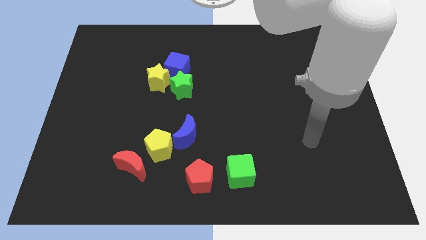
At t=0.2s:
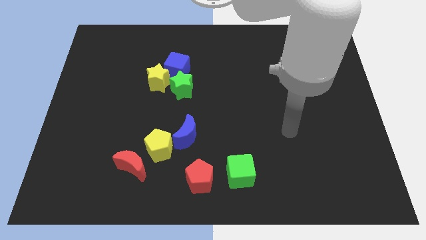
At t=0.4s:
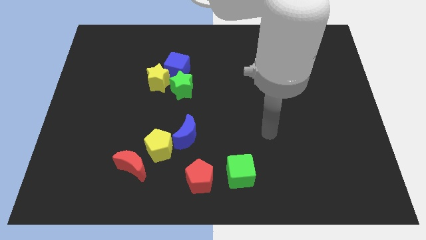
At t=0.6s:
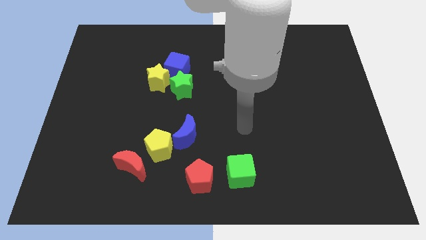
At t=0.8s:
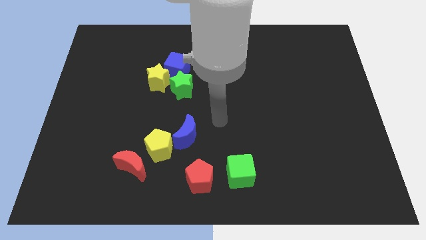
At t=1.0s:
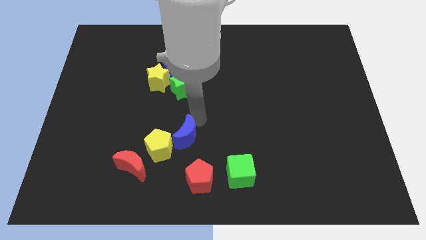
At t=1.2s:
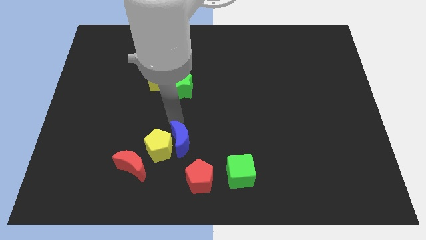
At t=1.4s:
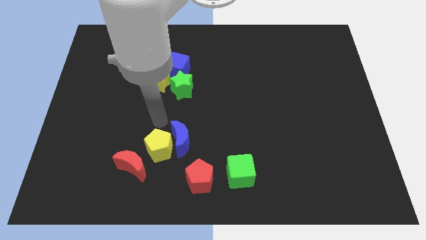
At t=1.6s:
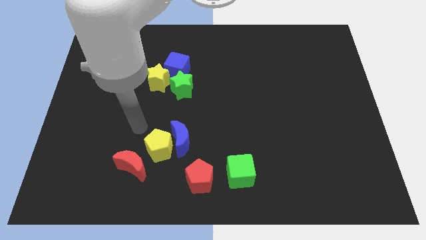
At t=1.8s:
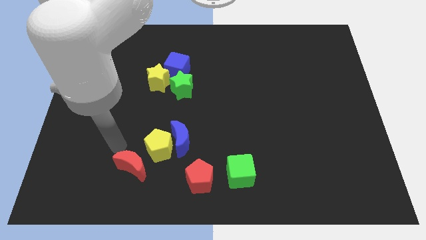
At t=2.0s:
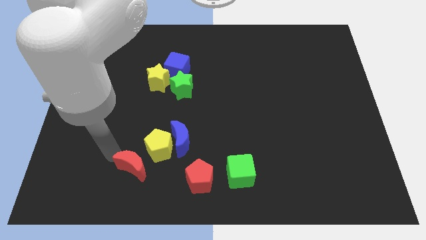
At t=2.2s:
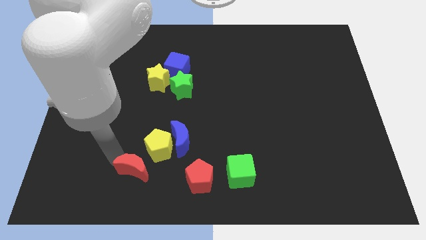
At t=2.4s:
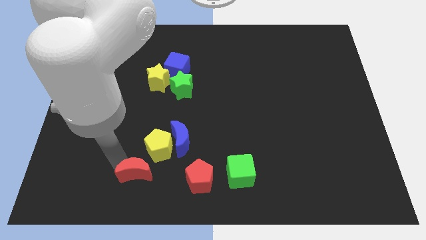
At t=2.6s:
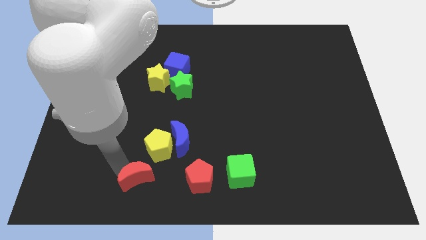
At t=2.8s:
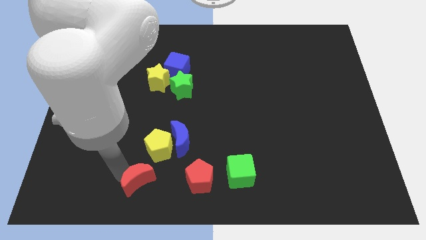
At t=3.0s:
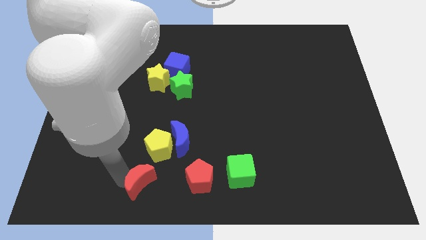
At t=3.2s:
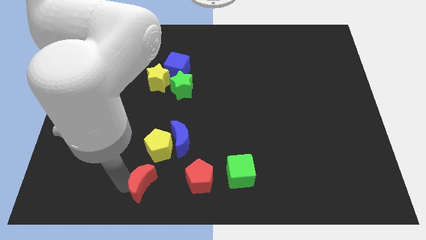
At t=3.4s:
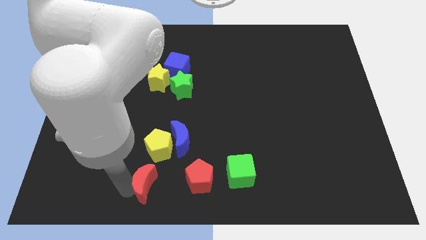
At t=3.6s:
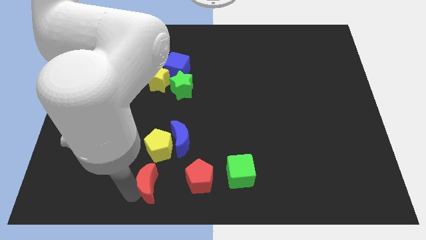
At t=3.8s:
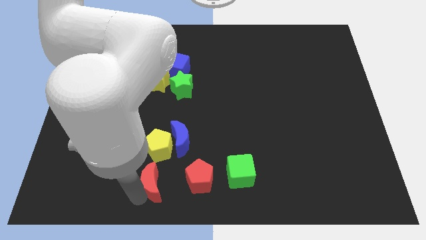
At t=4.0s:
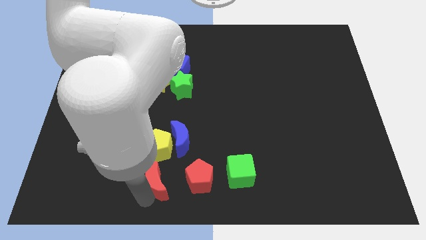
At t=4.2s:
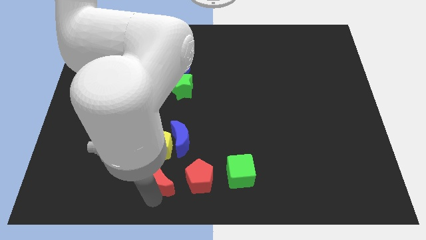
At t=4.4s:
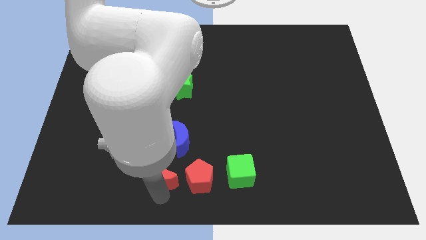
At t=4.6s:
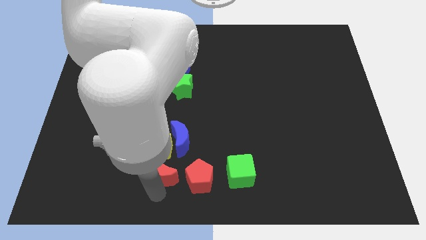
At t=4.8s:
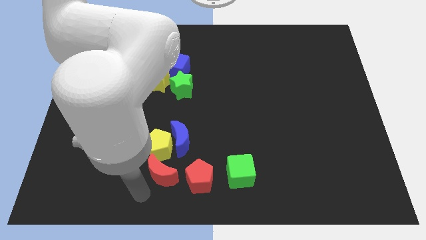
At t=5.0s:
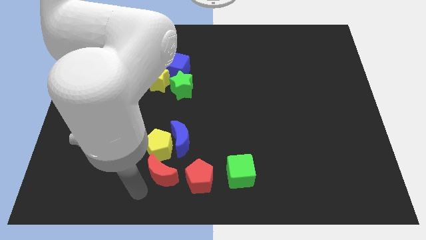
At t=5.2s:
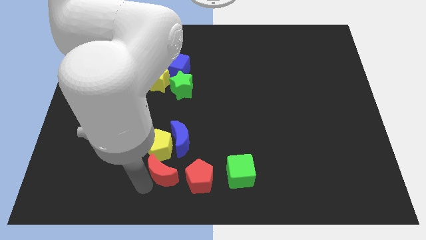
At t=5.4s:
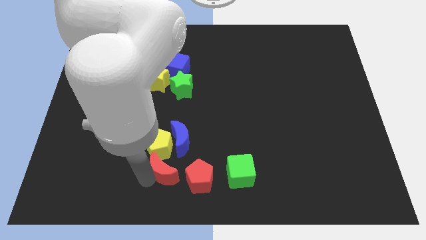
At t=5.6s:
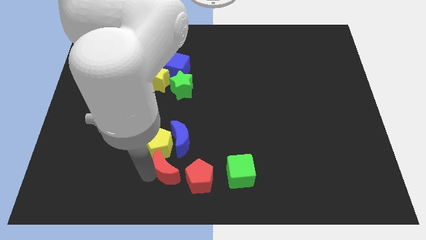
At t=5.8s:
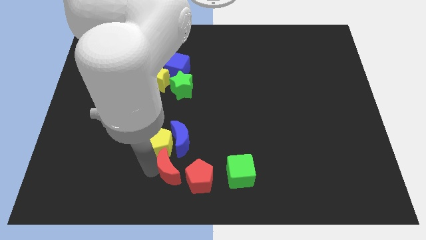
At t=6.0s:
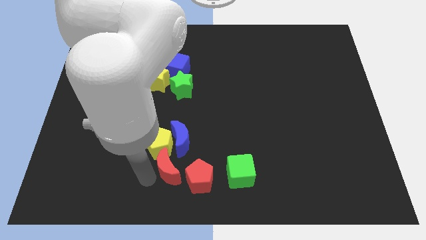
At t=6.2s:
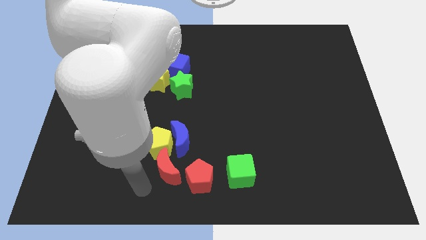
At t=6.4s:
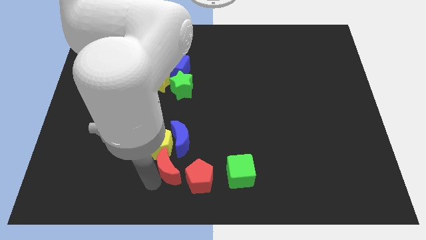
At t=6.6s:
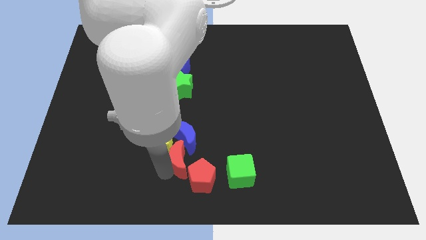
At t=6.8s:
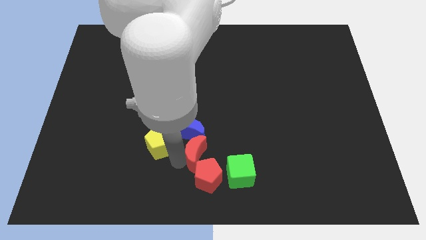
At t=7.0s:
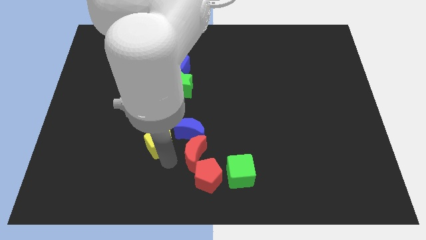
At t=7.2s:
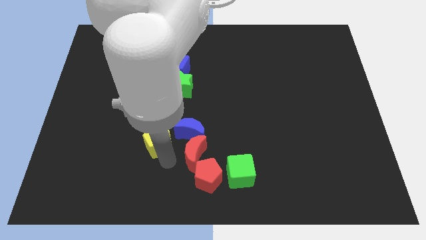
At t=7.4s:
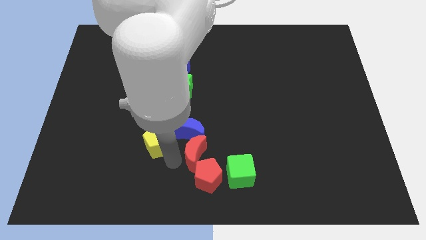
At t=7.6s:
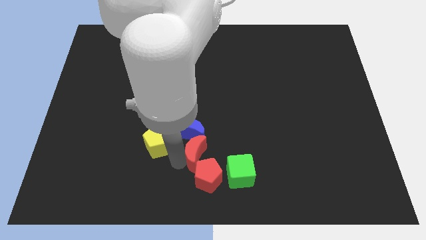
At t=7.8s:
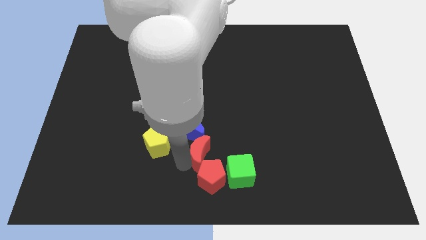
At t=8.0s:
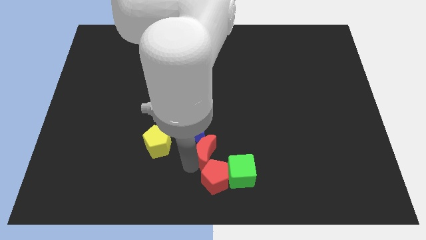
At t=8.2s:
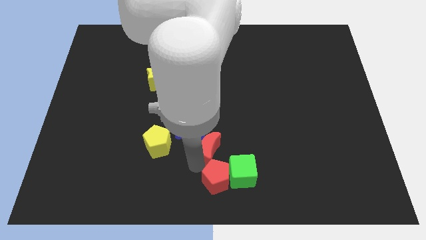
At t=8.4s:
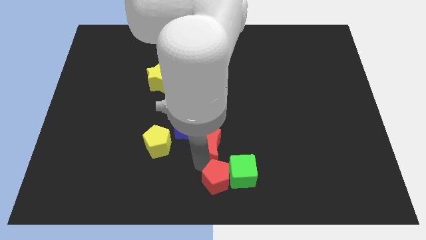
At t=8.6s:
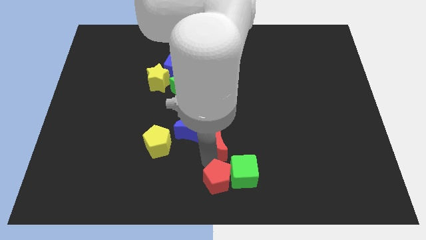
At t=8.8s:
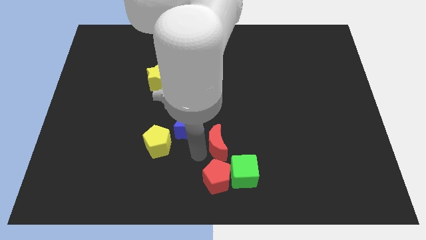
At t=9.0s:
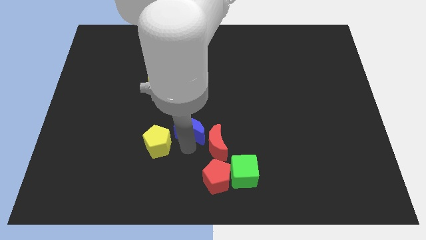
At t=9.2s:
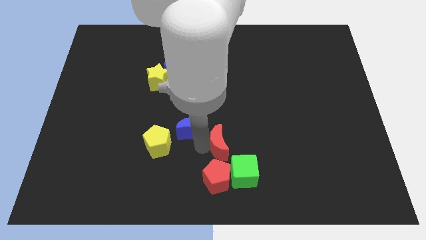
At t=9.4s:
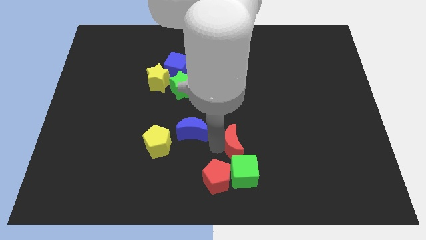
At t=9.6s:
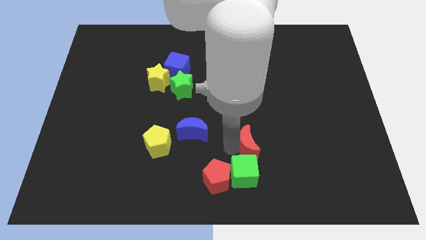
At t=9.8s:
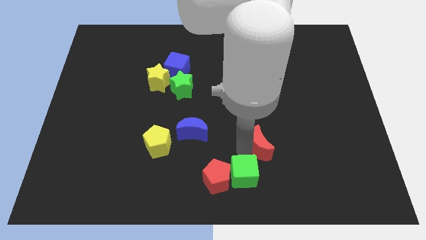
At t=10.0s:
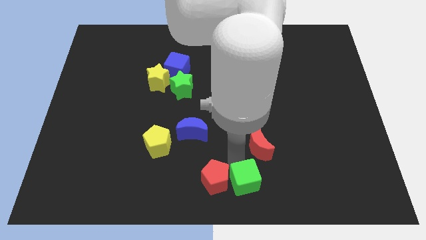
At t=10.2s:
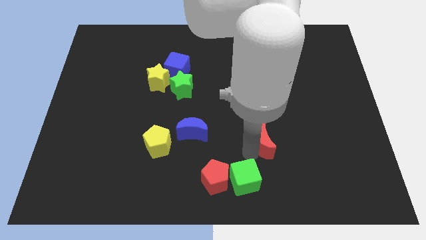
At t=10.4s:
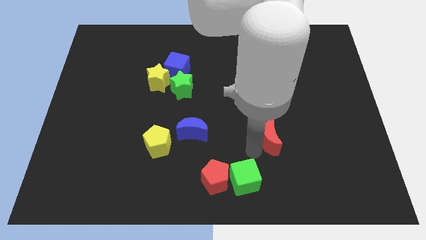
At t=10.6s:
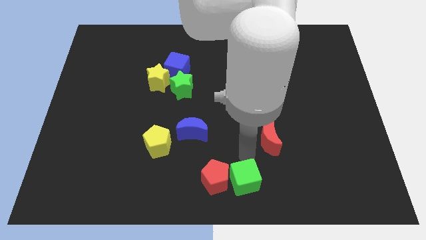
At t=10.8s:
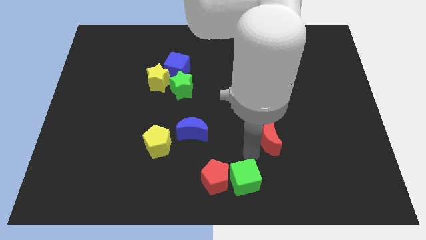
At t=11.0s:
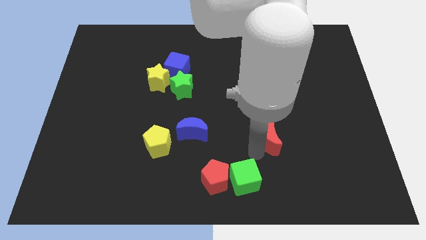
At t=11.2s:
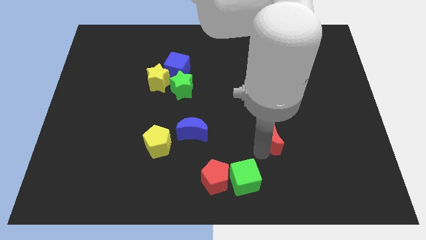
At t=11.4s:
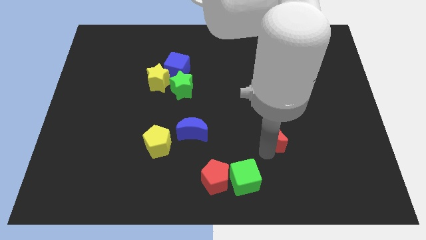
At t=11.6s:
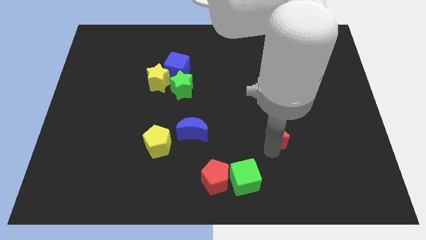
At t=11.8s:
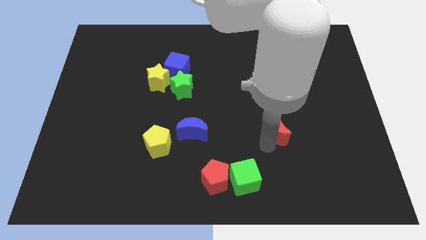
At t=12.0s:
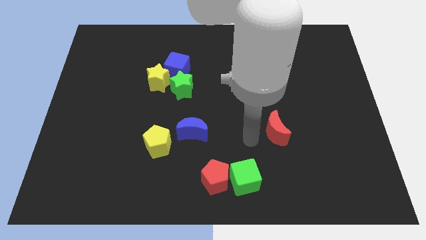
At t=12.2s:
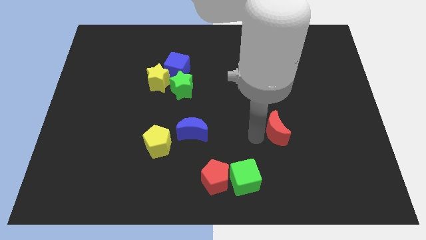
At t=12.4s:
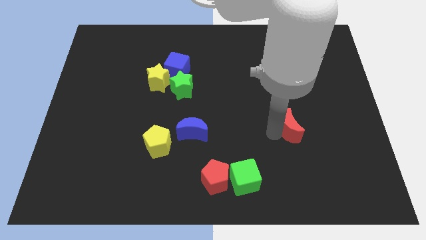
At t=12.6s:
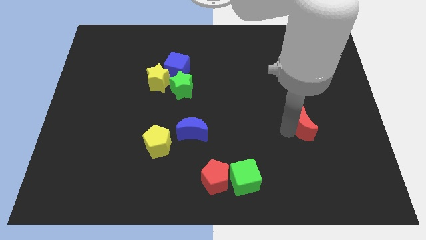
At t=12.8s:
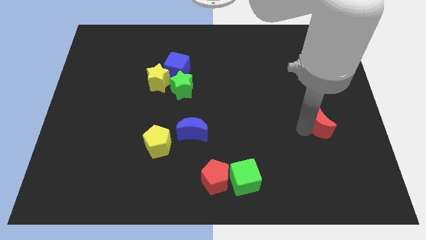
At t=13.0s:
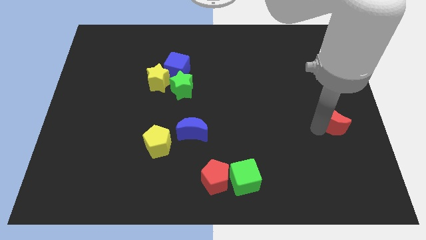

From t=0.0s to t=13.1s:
move the red moon to the right side
